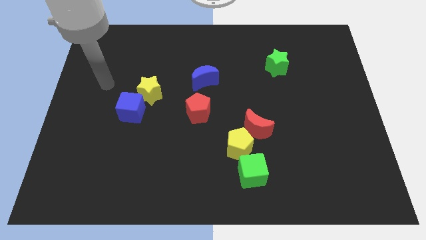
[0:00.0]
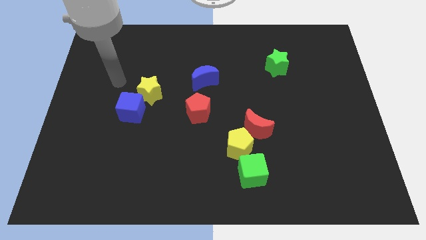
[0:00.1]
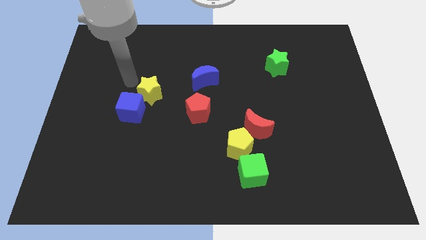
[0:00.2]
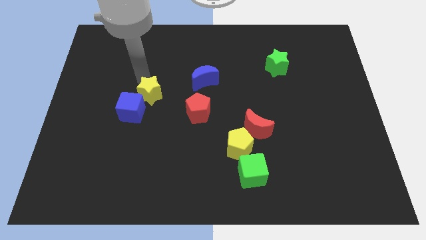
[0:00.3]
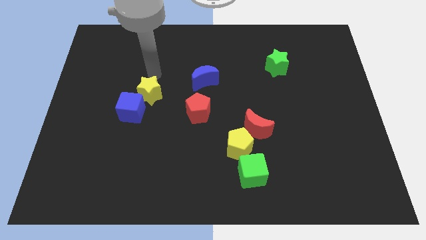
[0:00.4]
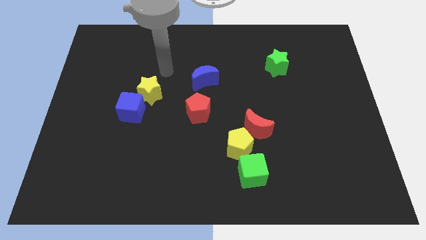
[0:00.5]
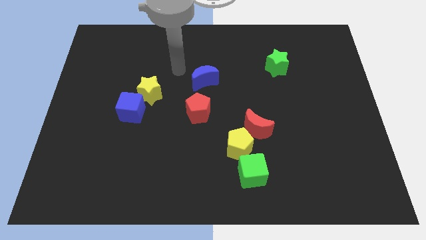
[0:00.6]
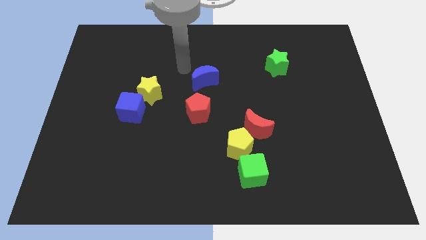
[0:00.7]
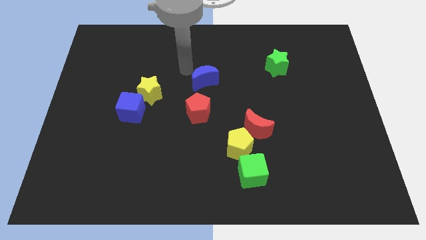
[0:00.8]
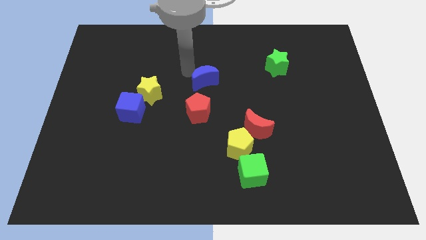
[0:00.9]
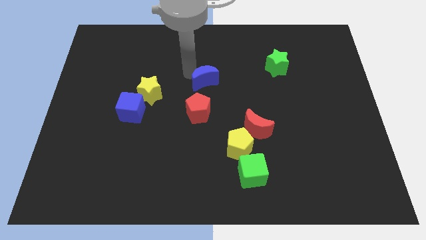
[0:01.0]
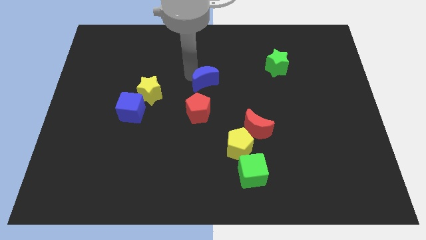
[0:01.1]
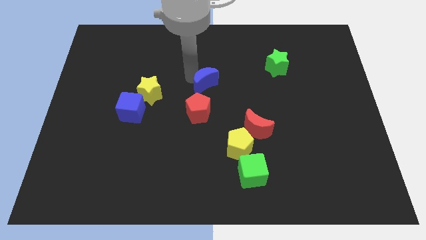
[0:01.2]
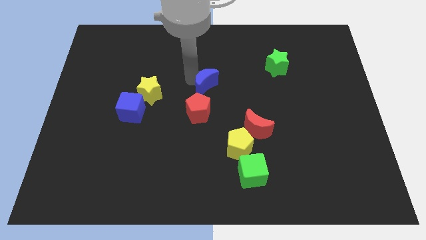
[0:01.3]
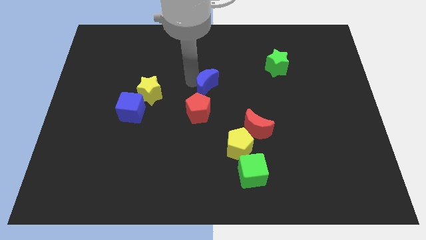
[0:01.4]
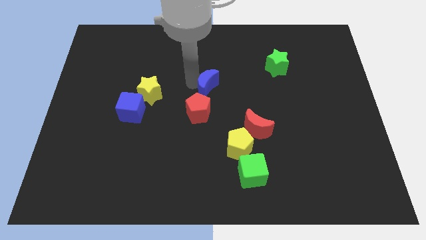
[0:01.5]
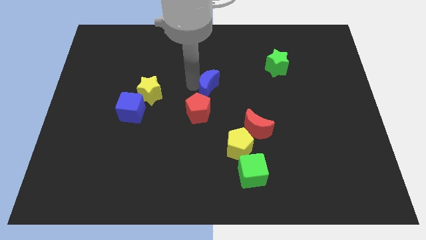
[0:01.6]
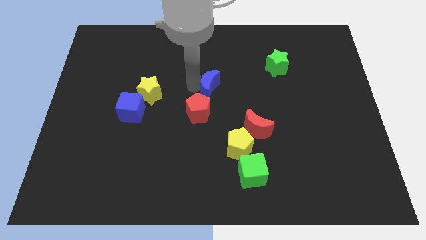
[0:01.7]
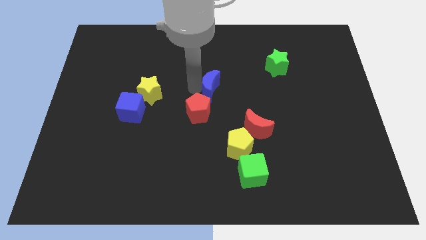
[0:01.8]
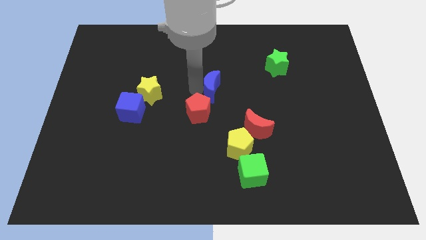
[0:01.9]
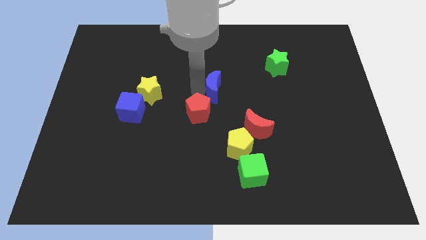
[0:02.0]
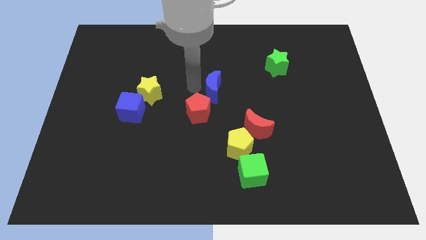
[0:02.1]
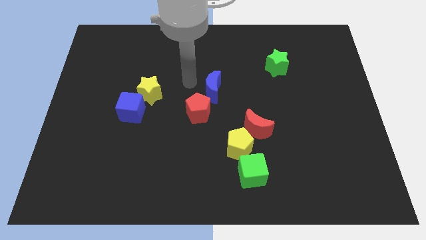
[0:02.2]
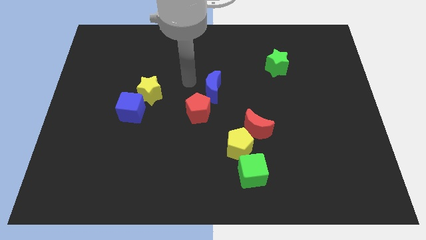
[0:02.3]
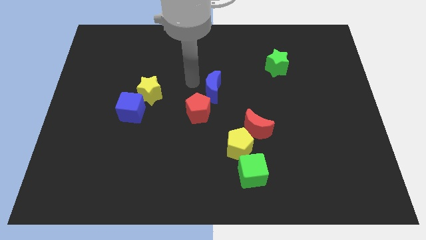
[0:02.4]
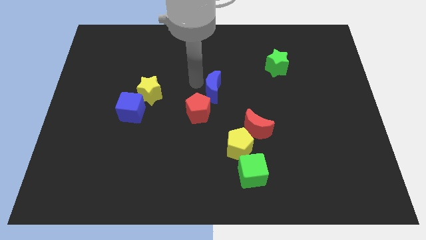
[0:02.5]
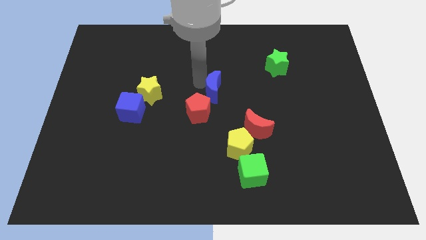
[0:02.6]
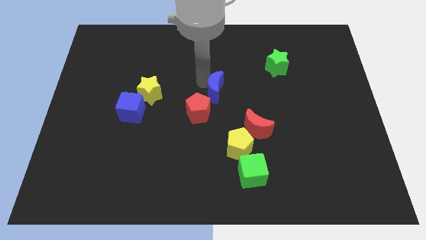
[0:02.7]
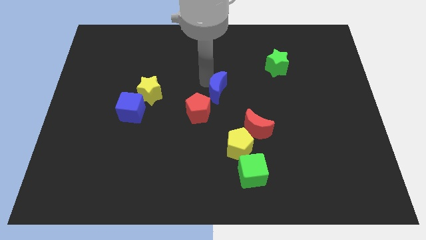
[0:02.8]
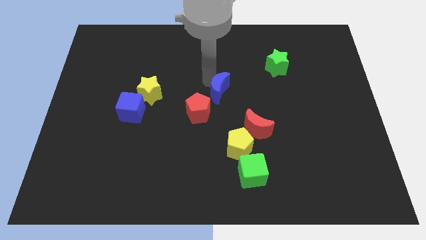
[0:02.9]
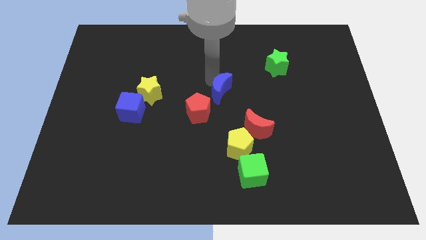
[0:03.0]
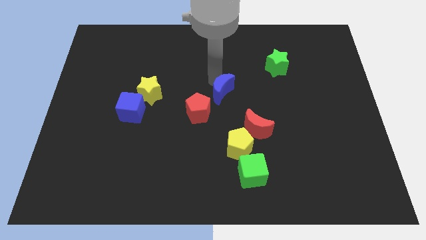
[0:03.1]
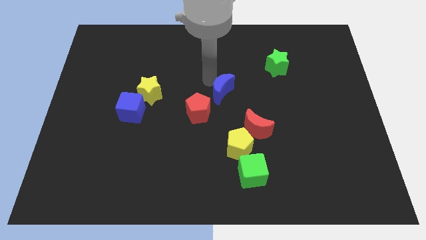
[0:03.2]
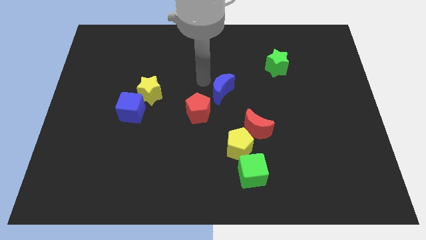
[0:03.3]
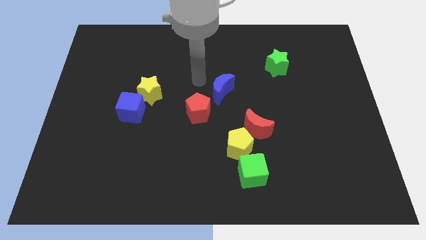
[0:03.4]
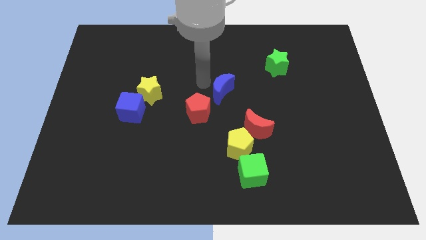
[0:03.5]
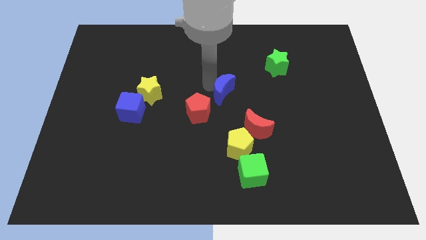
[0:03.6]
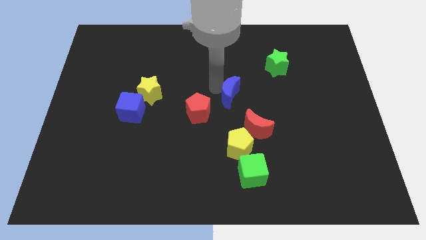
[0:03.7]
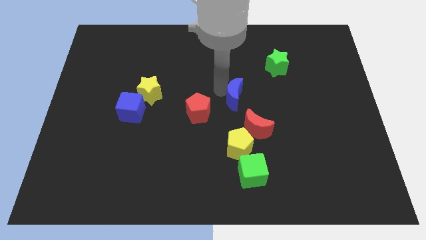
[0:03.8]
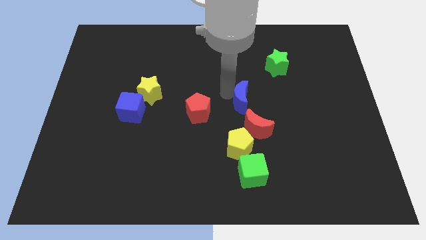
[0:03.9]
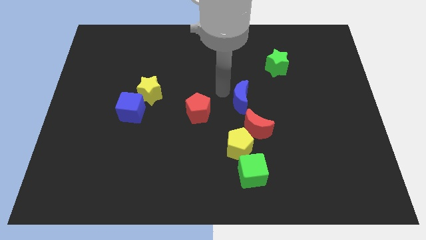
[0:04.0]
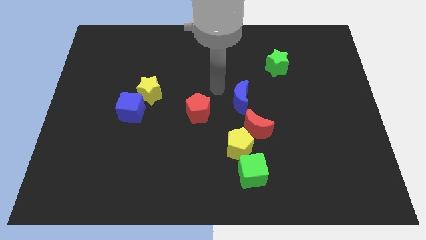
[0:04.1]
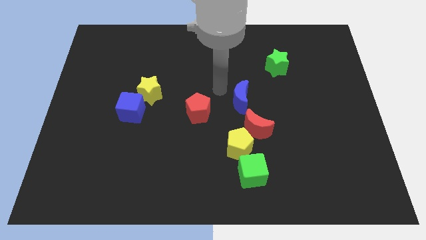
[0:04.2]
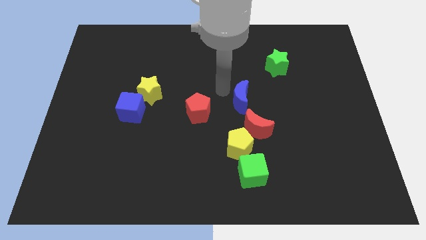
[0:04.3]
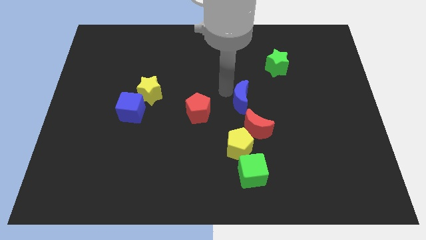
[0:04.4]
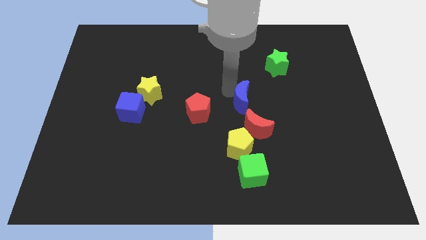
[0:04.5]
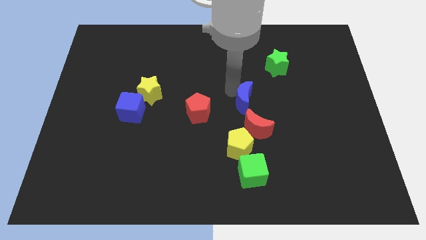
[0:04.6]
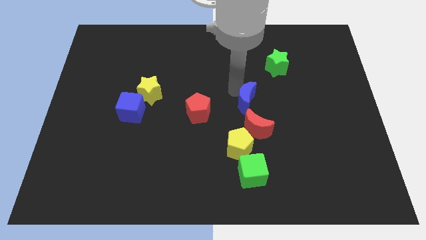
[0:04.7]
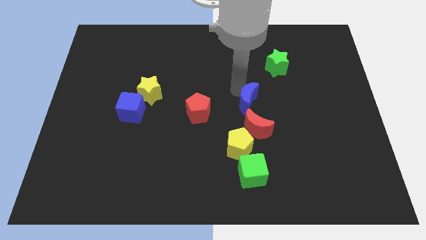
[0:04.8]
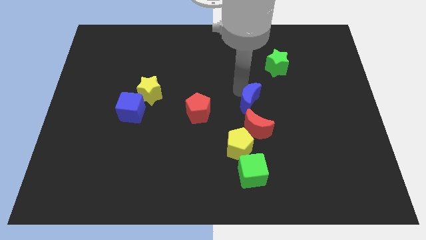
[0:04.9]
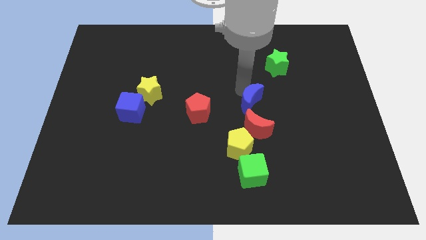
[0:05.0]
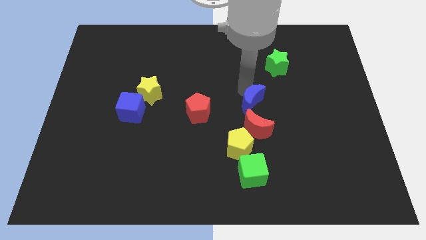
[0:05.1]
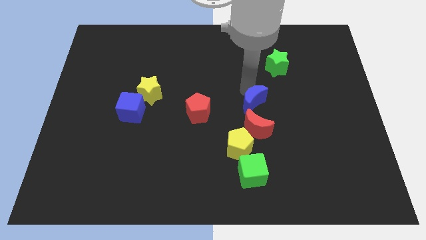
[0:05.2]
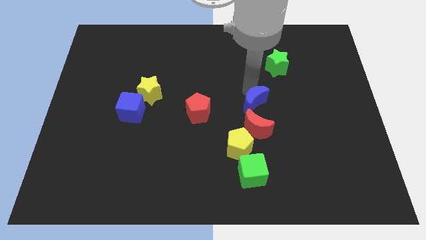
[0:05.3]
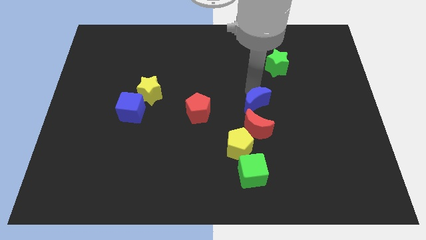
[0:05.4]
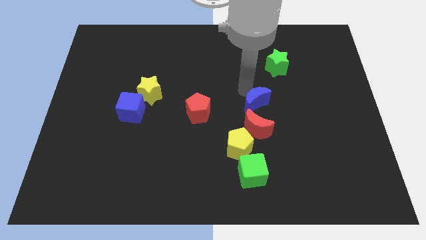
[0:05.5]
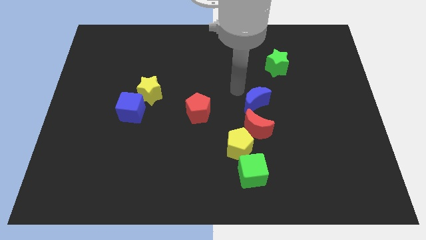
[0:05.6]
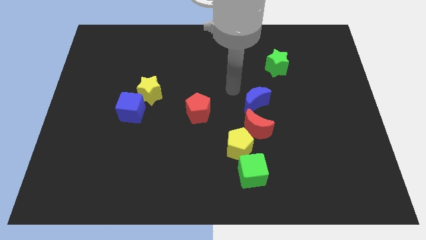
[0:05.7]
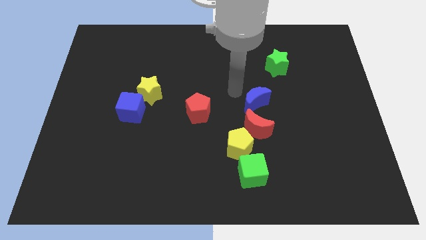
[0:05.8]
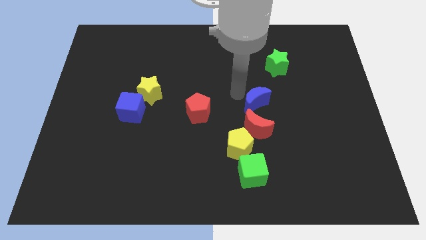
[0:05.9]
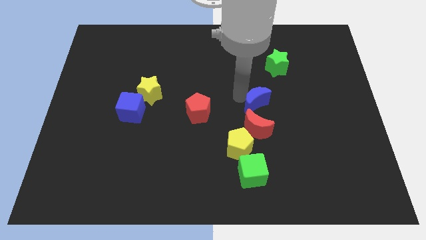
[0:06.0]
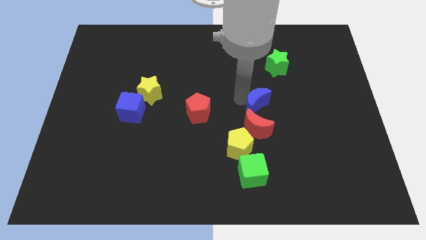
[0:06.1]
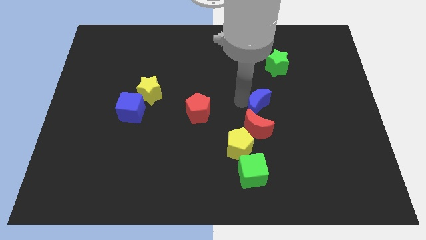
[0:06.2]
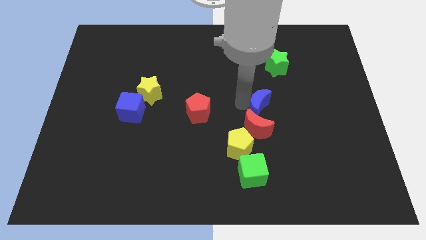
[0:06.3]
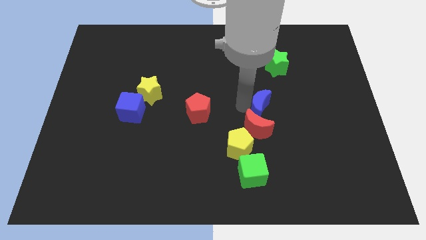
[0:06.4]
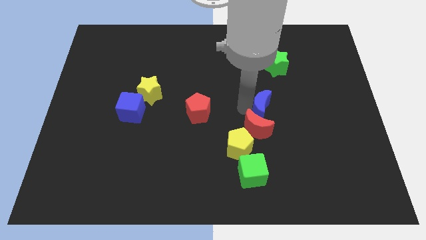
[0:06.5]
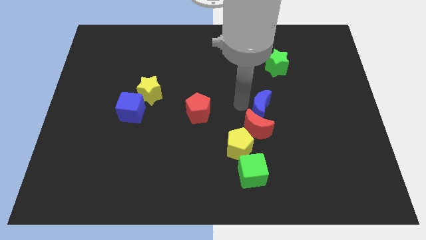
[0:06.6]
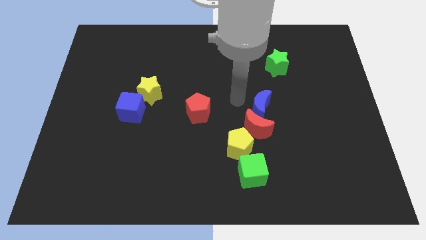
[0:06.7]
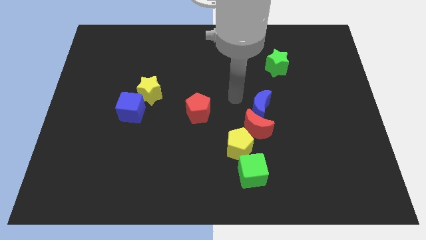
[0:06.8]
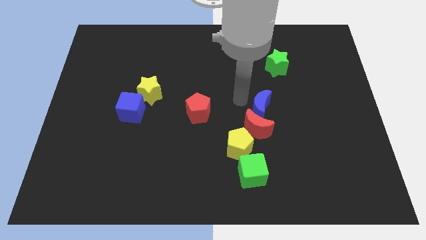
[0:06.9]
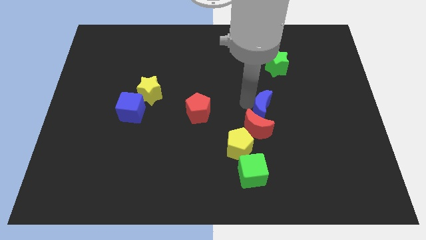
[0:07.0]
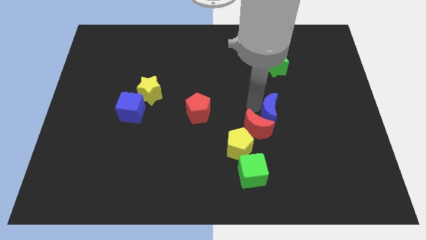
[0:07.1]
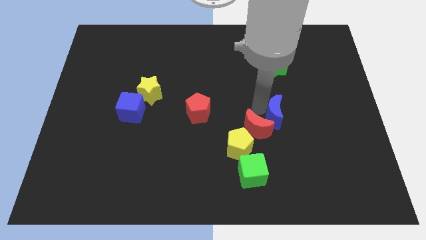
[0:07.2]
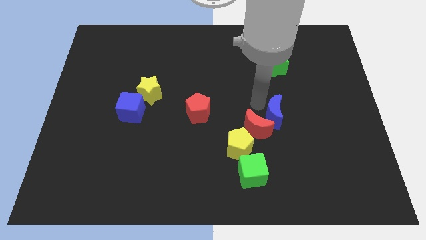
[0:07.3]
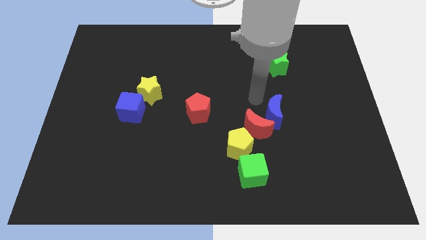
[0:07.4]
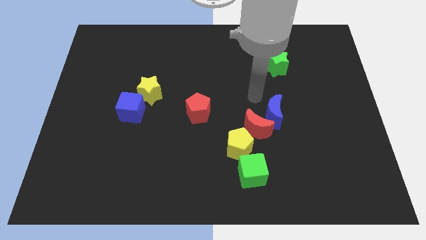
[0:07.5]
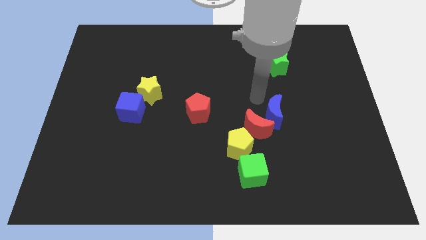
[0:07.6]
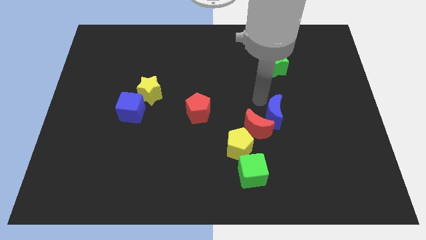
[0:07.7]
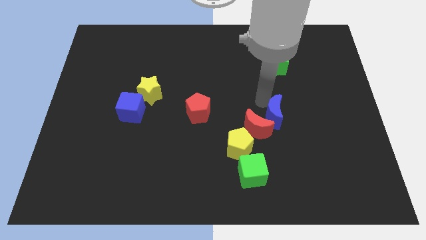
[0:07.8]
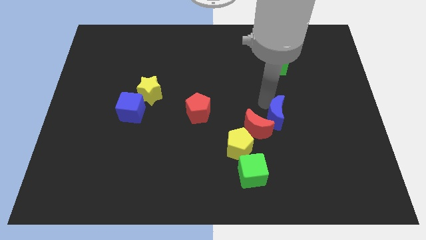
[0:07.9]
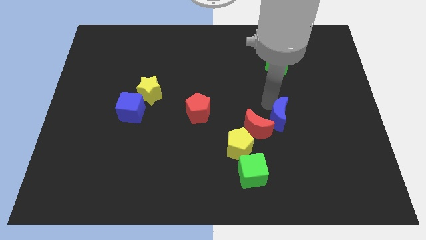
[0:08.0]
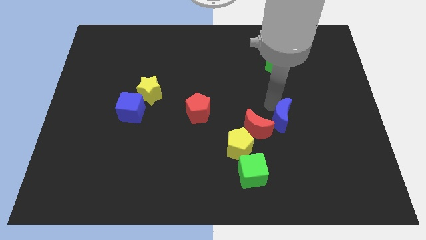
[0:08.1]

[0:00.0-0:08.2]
move the blue moon diagonally downwards and right
